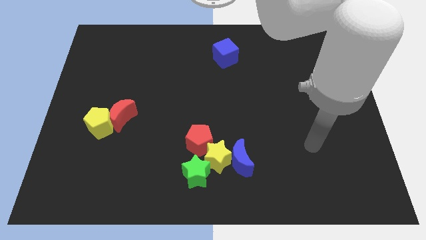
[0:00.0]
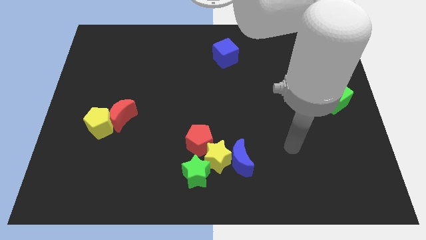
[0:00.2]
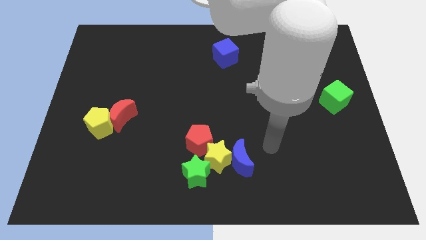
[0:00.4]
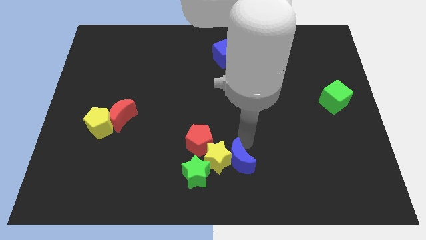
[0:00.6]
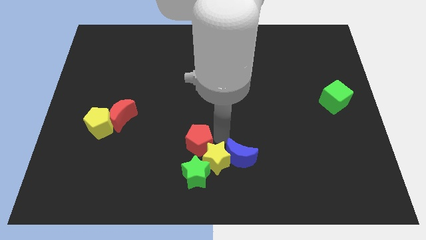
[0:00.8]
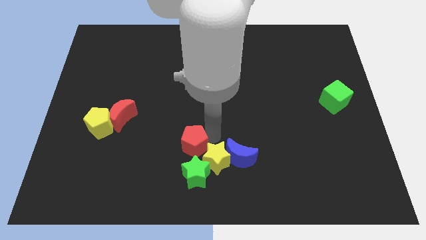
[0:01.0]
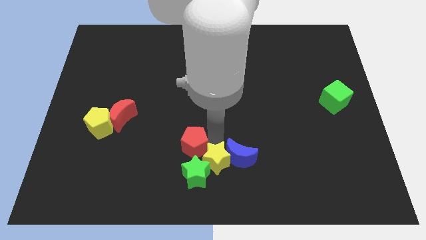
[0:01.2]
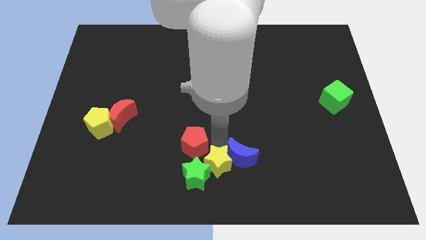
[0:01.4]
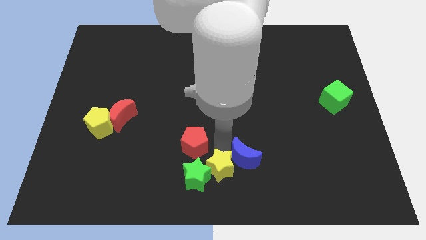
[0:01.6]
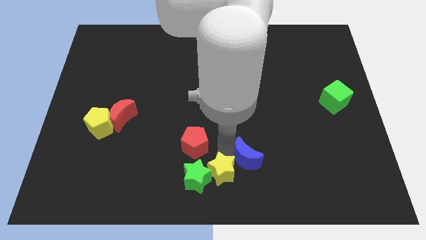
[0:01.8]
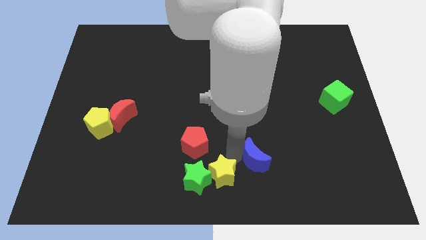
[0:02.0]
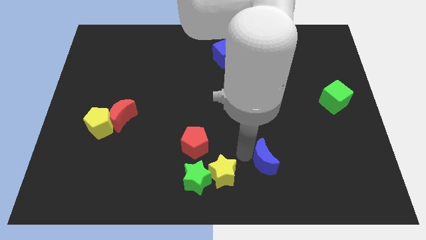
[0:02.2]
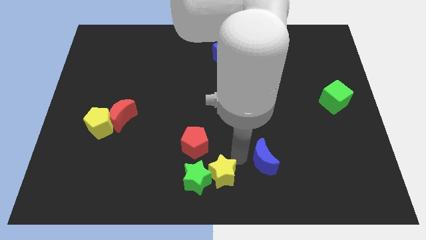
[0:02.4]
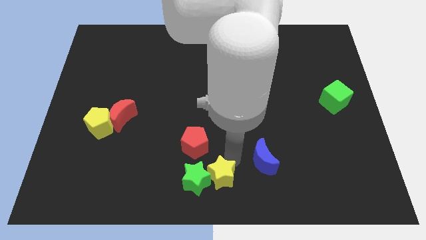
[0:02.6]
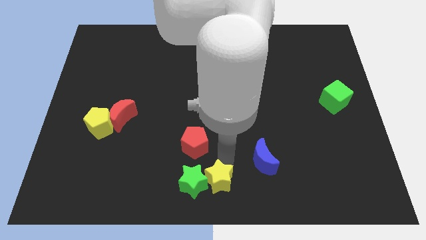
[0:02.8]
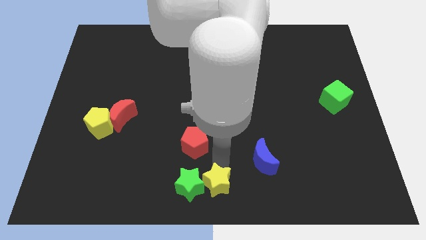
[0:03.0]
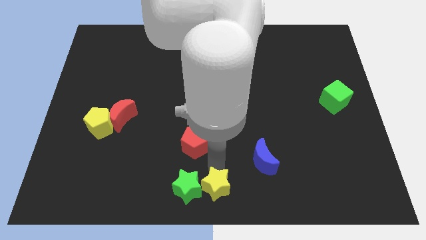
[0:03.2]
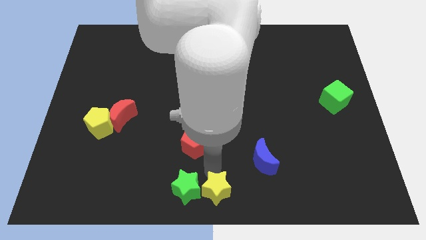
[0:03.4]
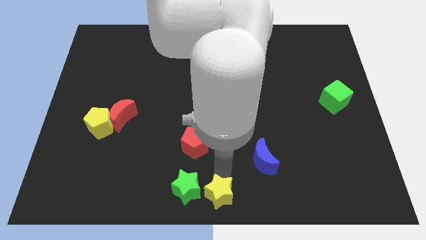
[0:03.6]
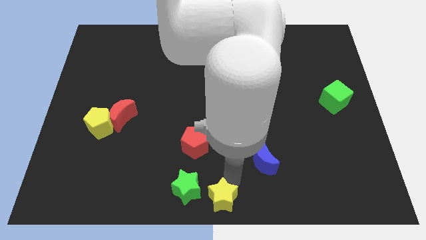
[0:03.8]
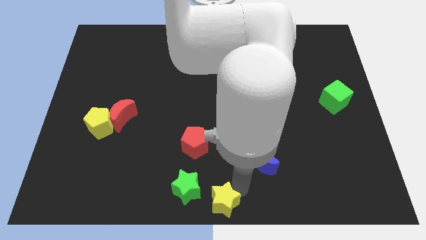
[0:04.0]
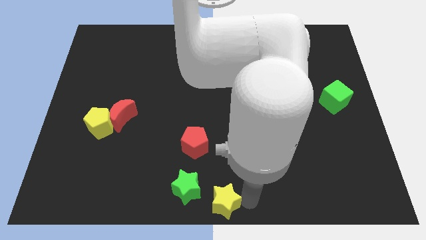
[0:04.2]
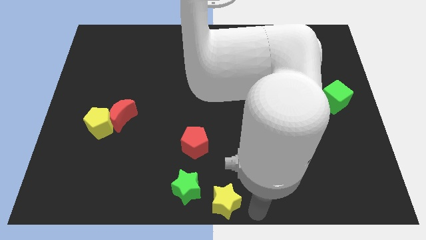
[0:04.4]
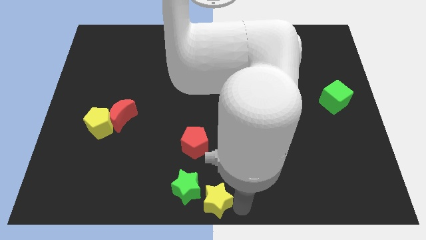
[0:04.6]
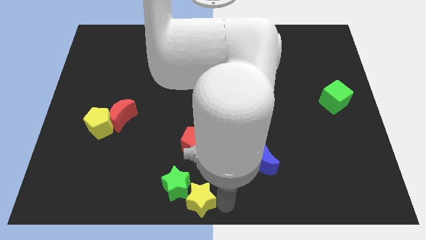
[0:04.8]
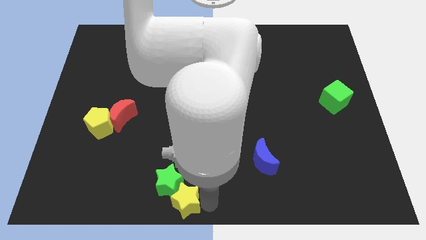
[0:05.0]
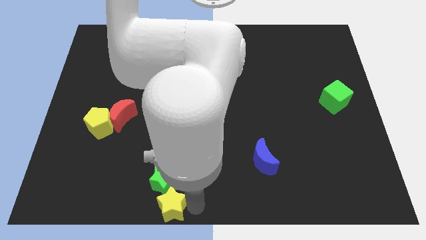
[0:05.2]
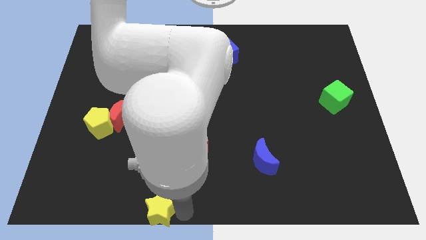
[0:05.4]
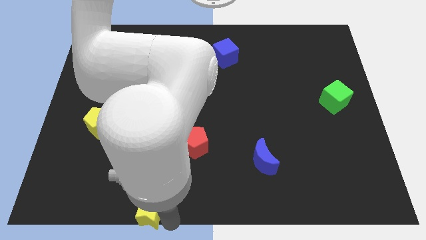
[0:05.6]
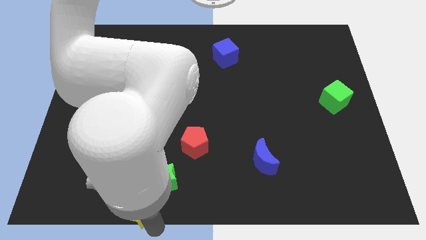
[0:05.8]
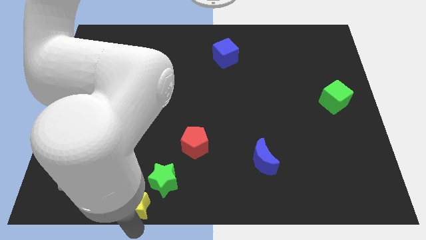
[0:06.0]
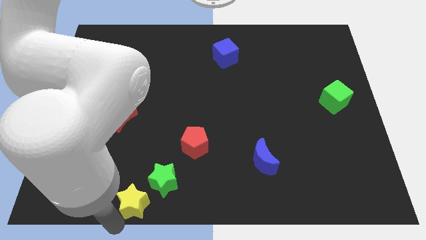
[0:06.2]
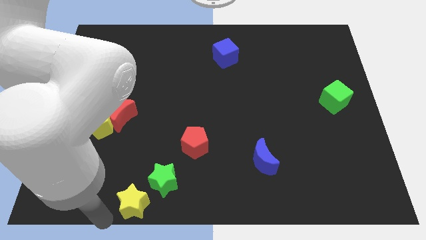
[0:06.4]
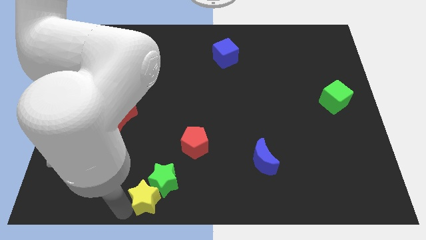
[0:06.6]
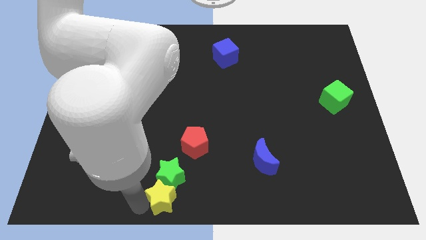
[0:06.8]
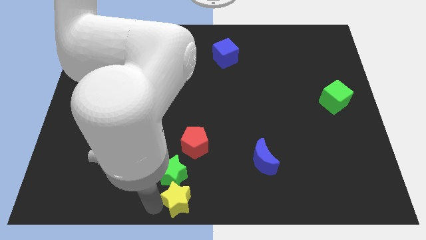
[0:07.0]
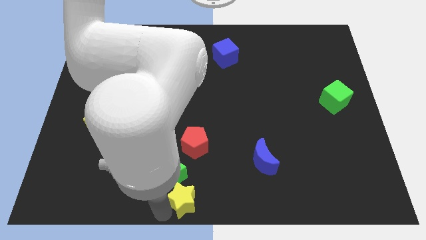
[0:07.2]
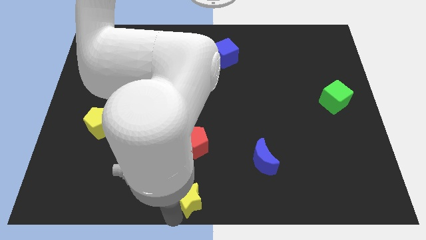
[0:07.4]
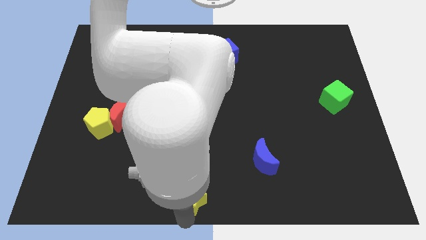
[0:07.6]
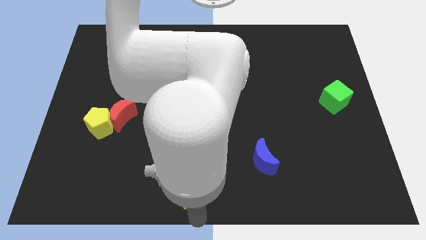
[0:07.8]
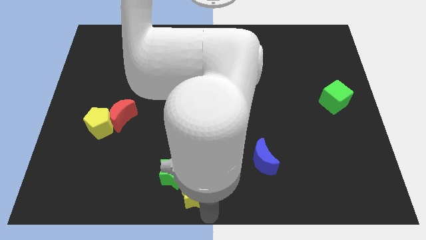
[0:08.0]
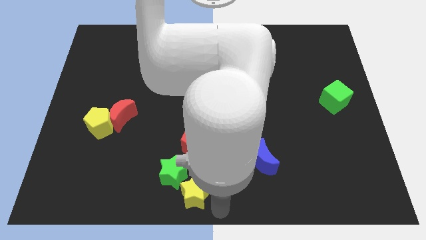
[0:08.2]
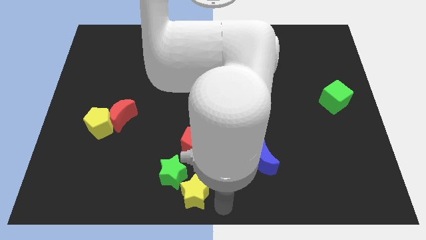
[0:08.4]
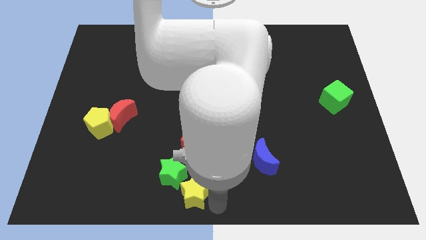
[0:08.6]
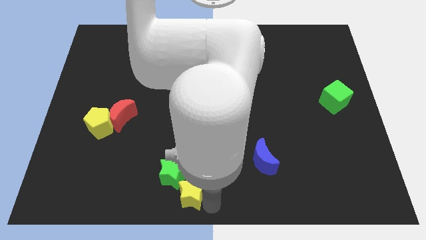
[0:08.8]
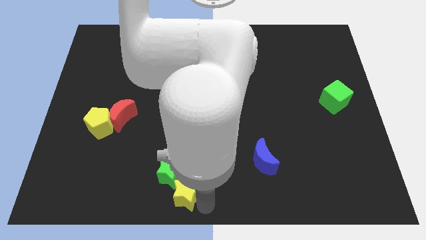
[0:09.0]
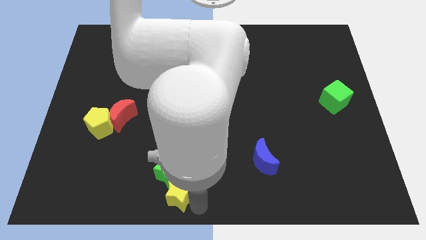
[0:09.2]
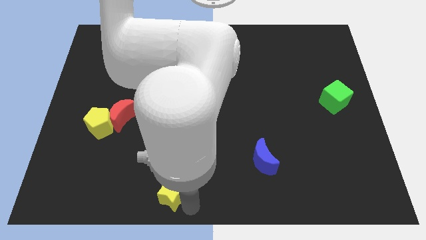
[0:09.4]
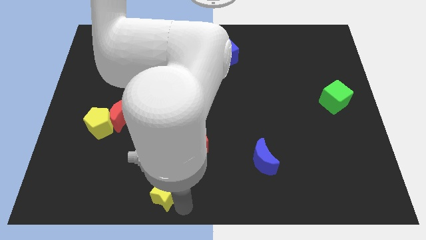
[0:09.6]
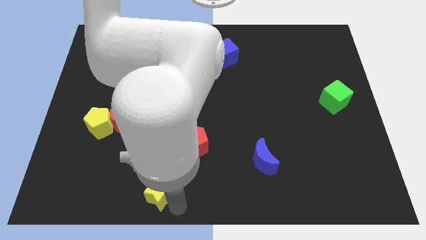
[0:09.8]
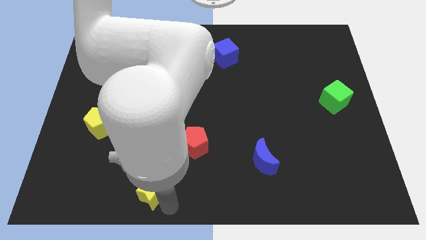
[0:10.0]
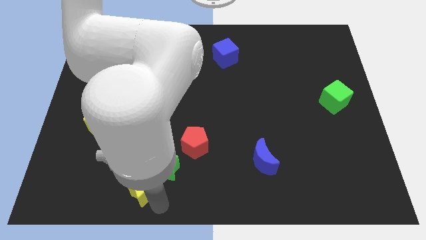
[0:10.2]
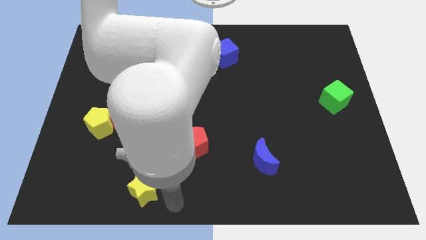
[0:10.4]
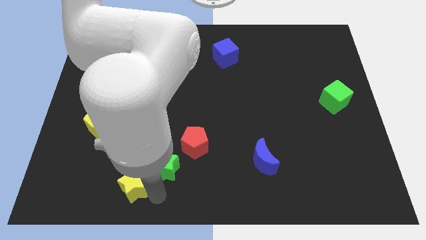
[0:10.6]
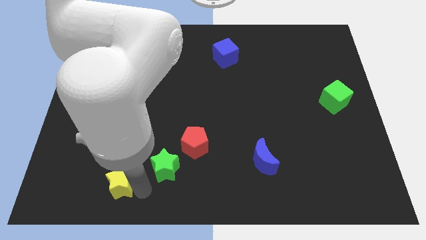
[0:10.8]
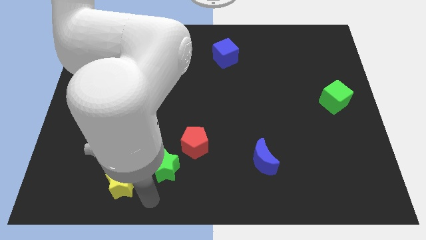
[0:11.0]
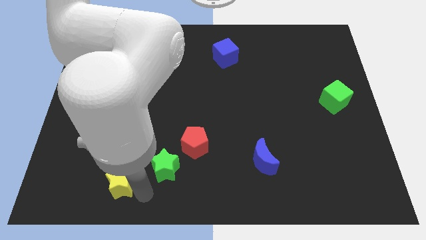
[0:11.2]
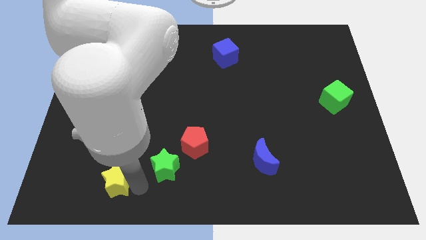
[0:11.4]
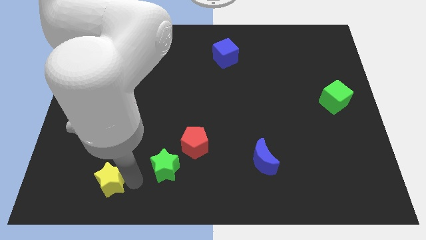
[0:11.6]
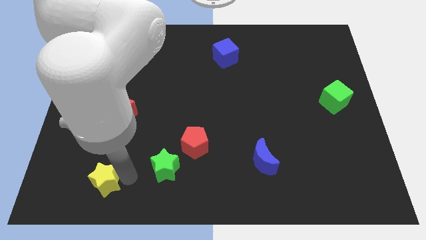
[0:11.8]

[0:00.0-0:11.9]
move the yellow star below the yellow pentagon
